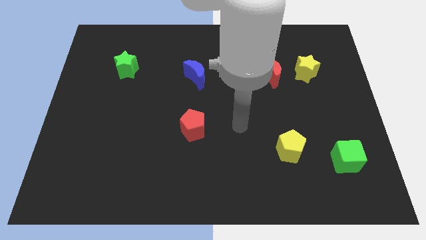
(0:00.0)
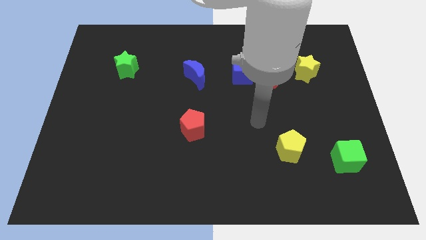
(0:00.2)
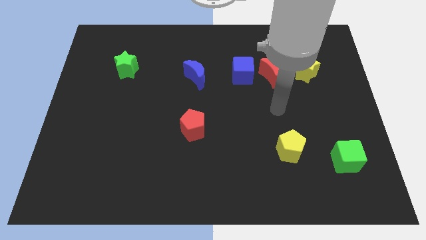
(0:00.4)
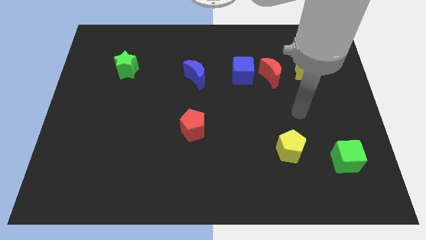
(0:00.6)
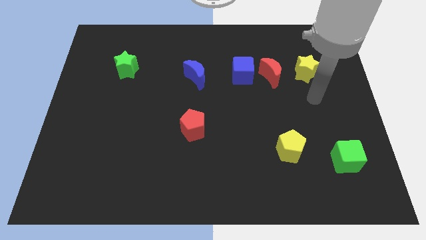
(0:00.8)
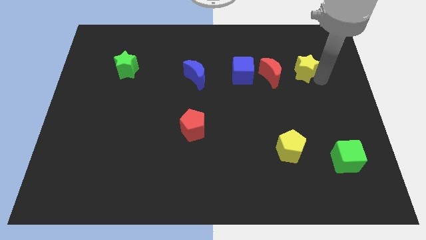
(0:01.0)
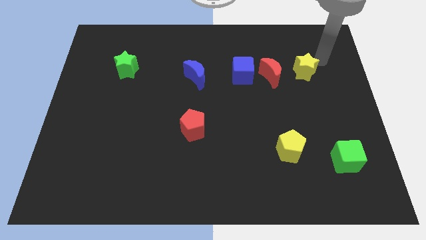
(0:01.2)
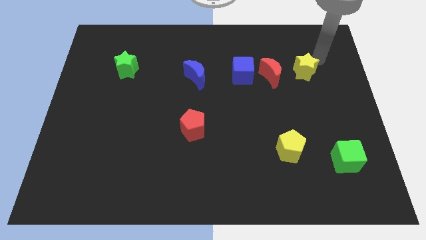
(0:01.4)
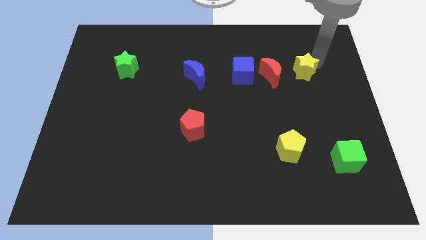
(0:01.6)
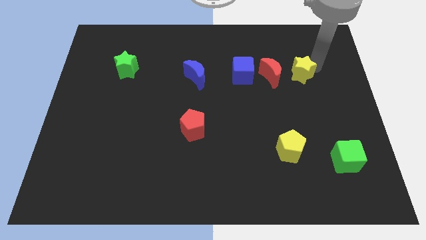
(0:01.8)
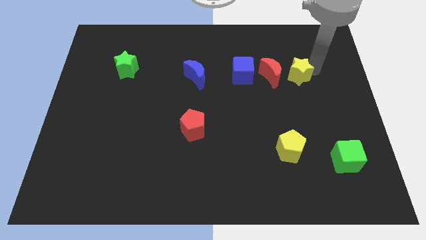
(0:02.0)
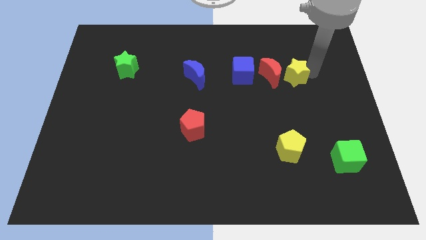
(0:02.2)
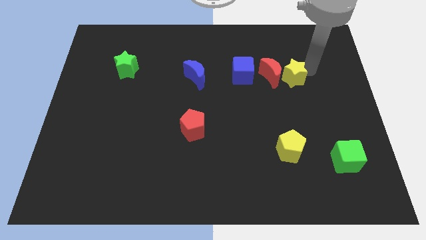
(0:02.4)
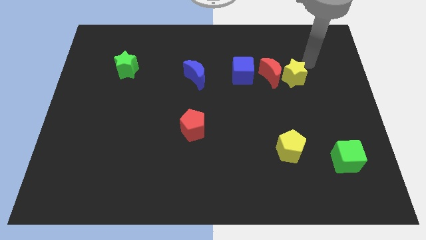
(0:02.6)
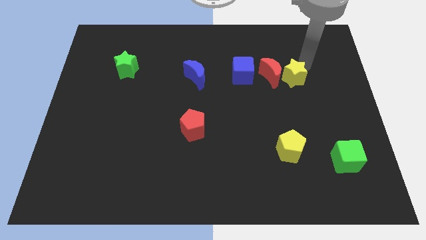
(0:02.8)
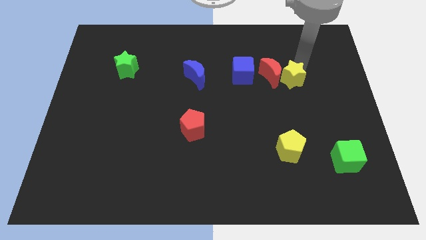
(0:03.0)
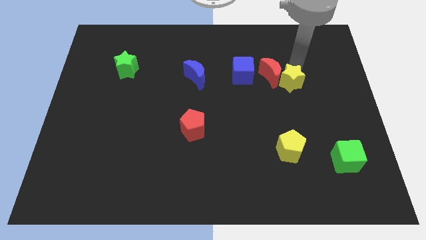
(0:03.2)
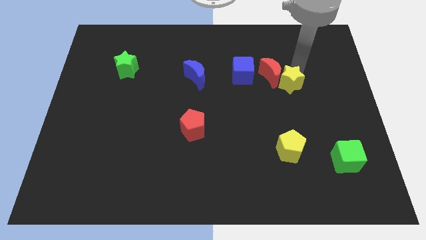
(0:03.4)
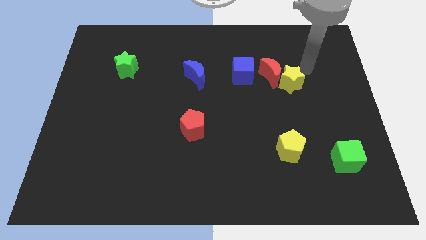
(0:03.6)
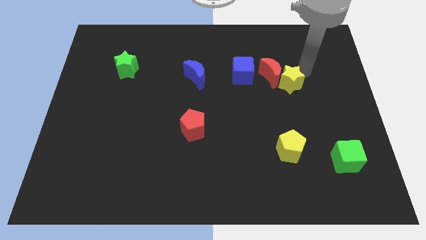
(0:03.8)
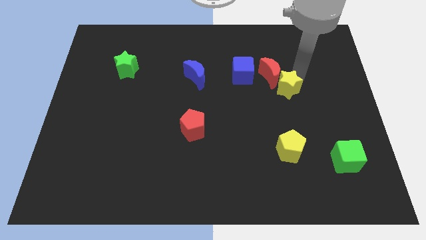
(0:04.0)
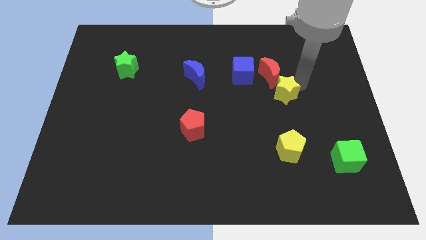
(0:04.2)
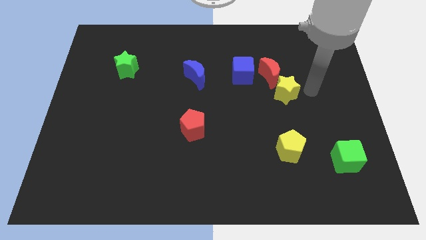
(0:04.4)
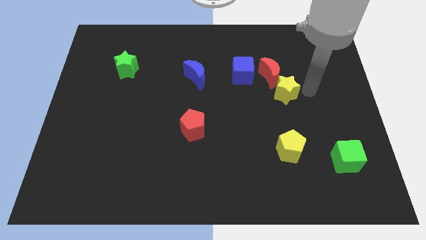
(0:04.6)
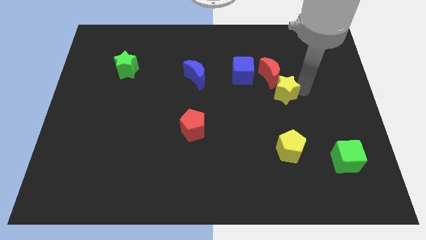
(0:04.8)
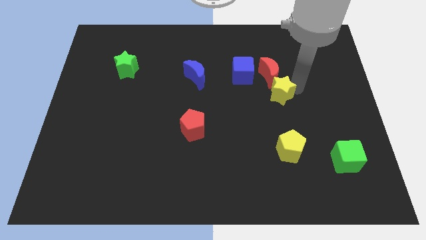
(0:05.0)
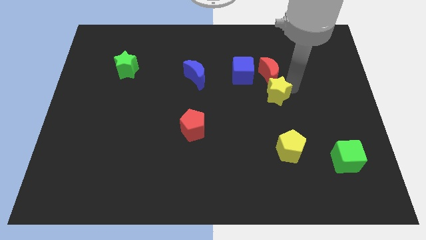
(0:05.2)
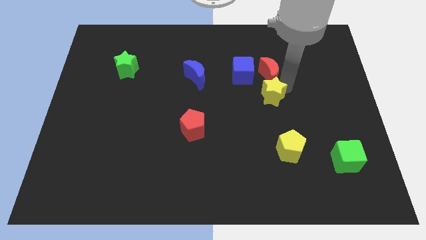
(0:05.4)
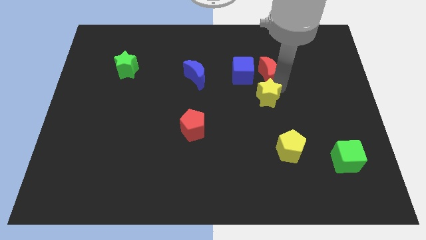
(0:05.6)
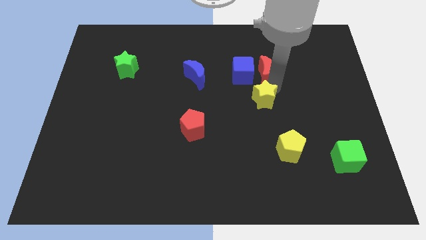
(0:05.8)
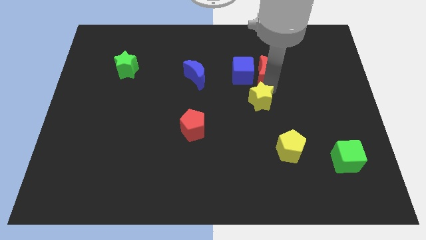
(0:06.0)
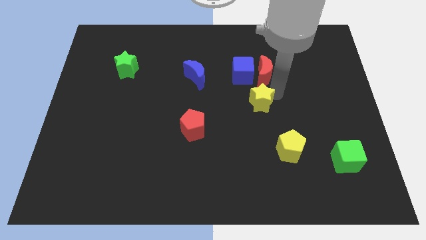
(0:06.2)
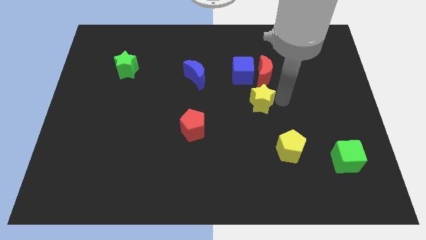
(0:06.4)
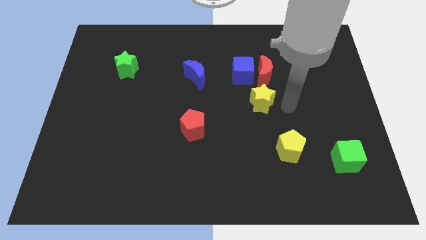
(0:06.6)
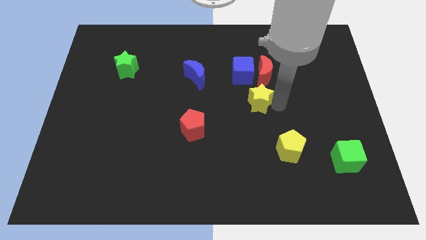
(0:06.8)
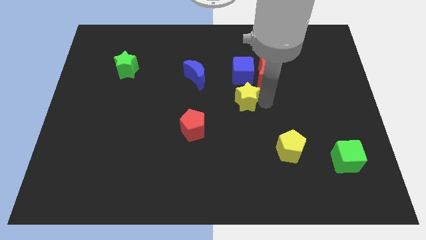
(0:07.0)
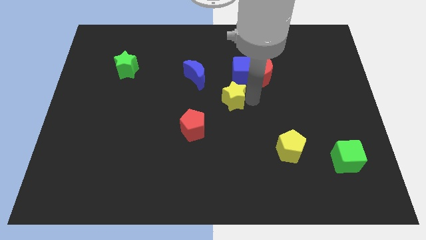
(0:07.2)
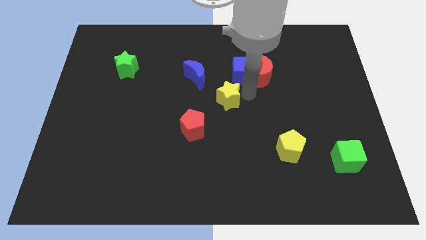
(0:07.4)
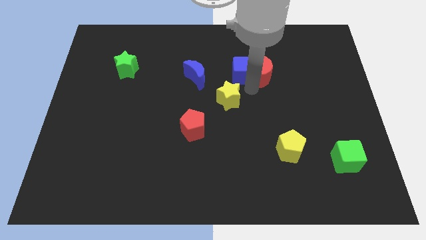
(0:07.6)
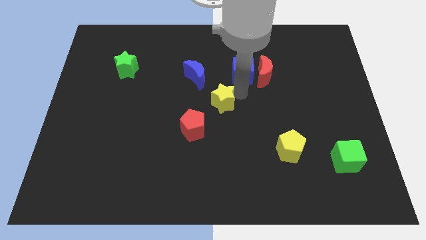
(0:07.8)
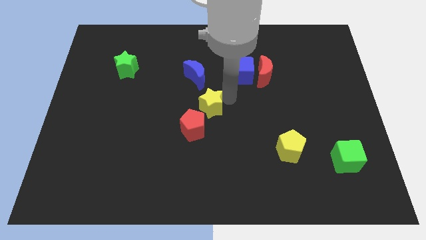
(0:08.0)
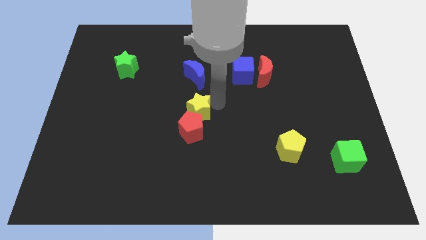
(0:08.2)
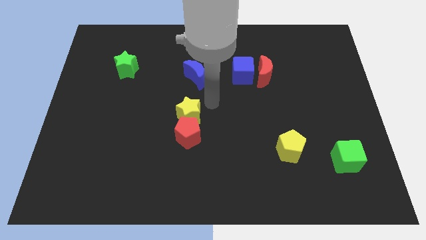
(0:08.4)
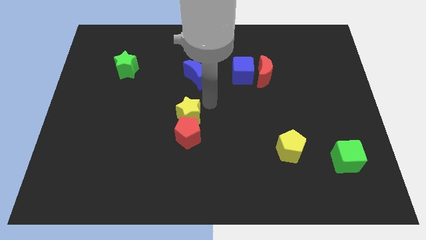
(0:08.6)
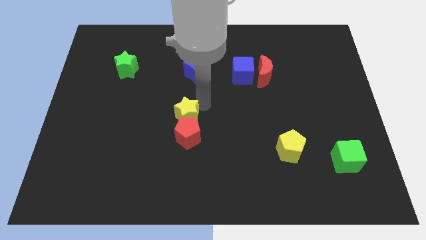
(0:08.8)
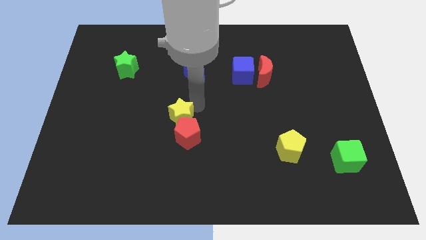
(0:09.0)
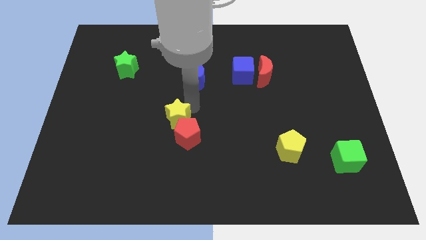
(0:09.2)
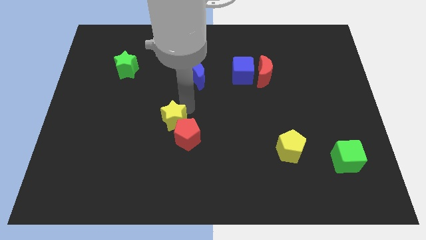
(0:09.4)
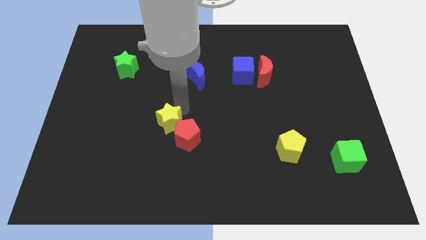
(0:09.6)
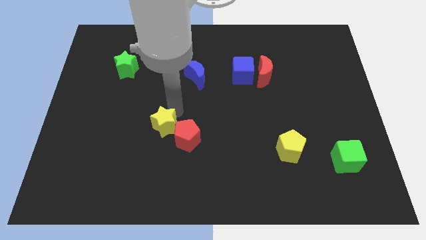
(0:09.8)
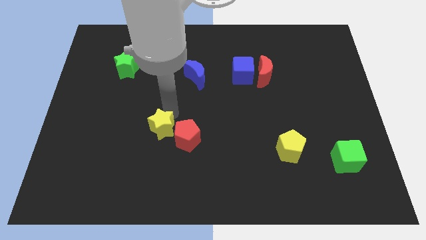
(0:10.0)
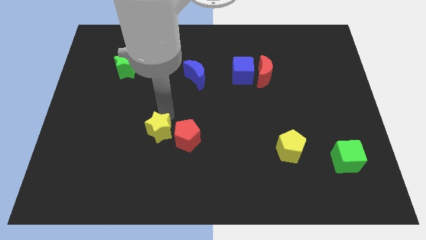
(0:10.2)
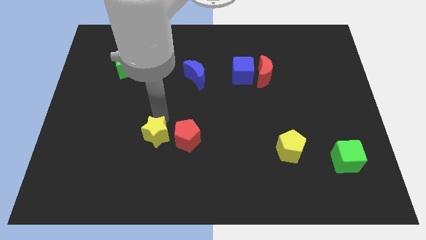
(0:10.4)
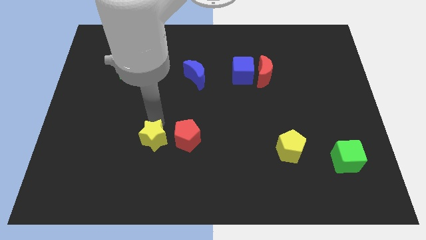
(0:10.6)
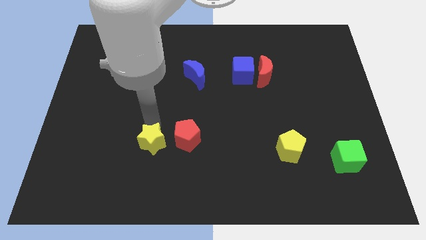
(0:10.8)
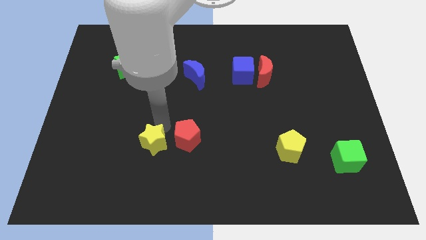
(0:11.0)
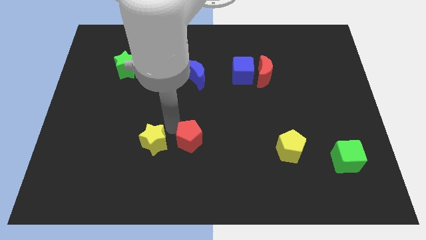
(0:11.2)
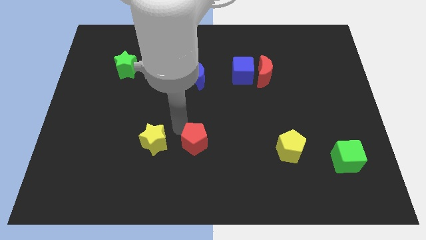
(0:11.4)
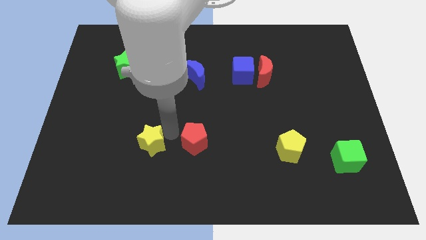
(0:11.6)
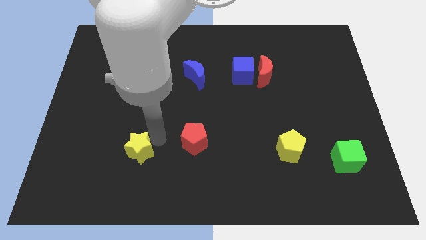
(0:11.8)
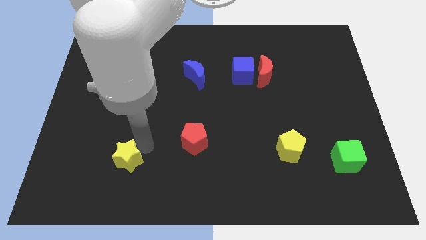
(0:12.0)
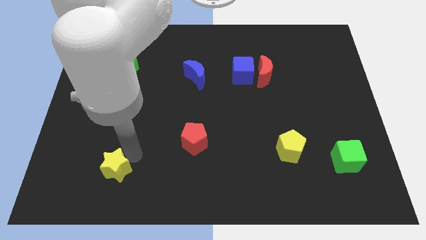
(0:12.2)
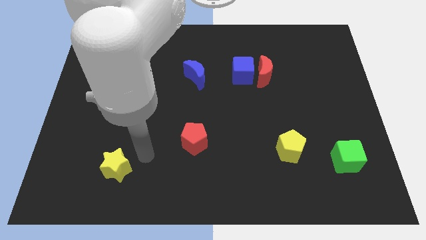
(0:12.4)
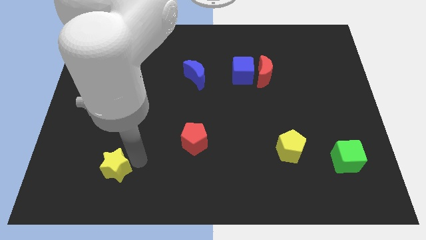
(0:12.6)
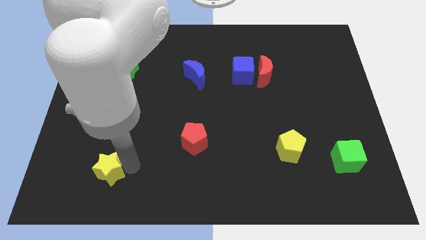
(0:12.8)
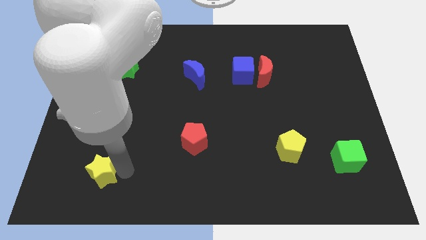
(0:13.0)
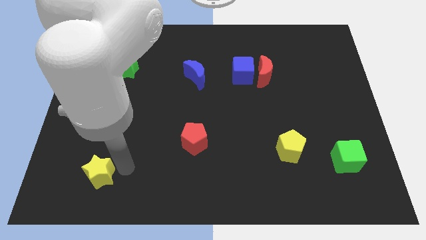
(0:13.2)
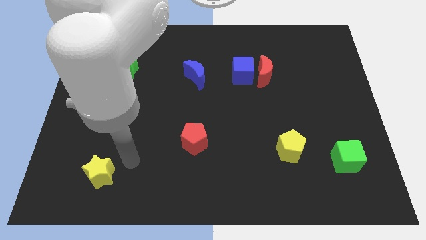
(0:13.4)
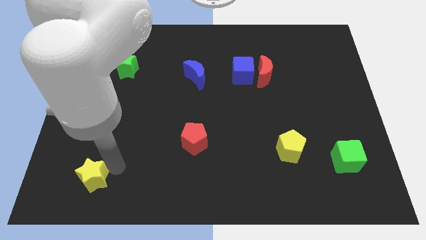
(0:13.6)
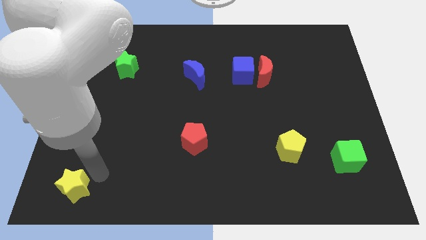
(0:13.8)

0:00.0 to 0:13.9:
put the yellow star to the bottom left of the board

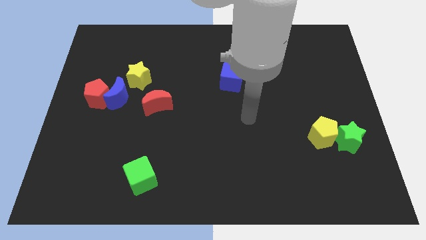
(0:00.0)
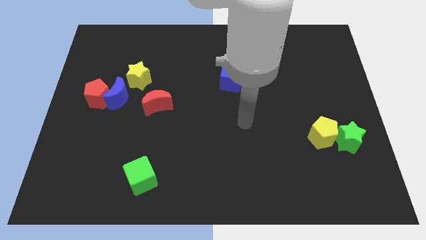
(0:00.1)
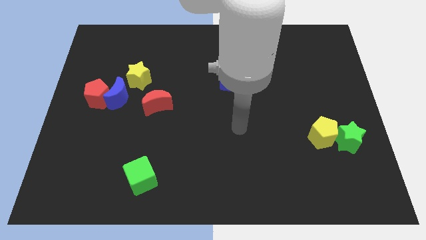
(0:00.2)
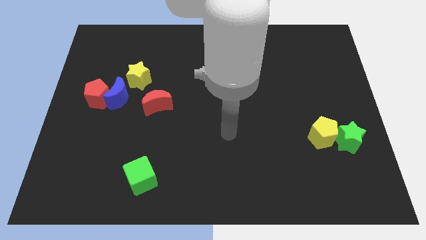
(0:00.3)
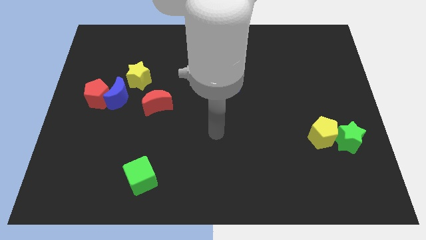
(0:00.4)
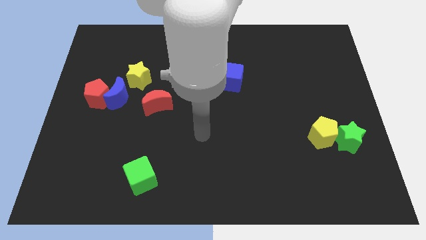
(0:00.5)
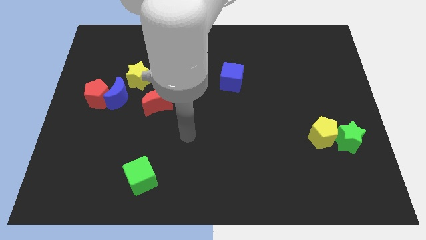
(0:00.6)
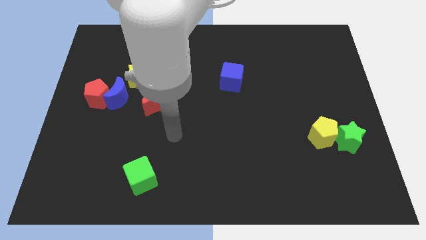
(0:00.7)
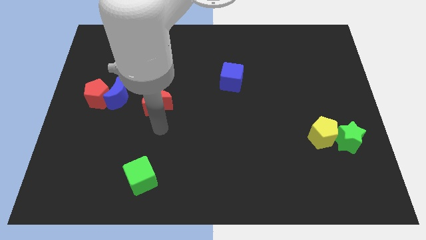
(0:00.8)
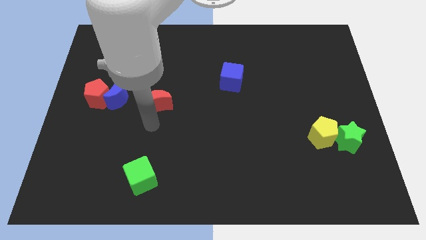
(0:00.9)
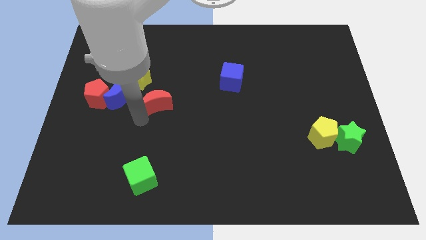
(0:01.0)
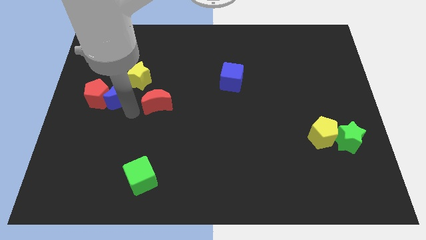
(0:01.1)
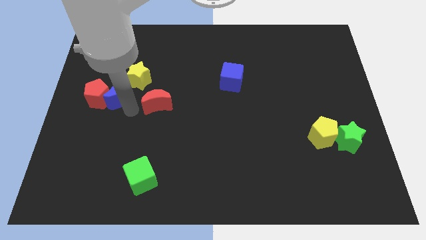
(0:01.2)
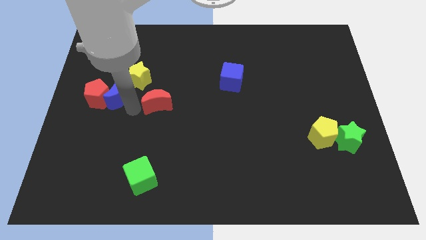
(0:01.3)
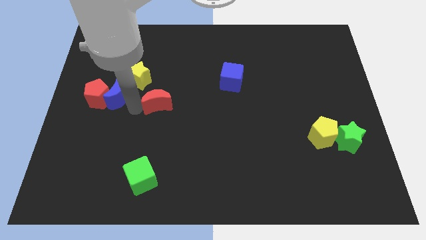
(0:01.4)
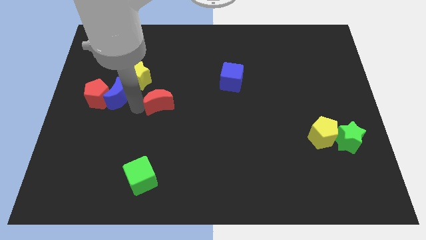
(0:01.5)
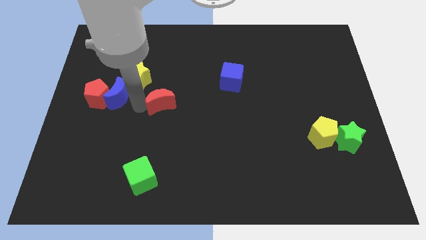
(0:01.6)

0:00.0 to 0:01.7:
put the red moon to the center of the board
